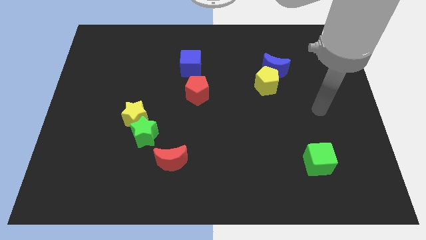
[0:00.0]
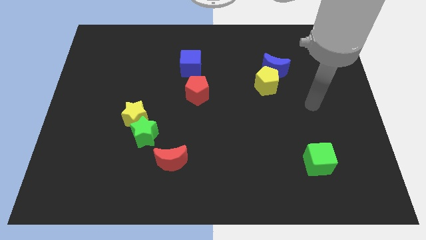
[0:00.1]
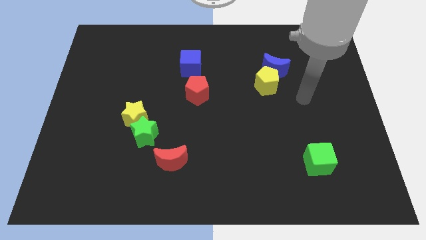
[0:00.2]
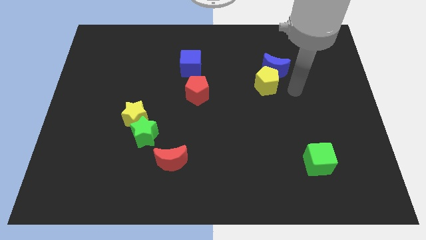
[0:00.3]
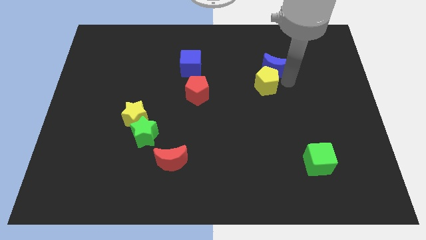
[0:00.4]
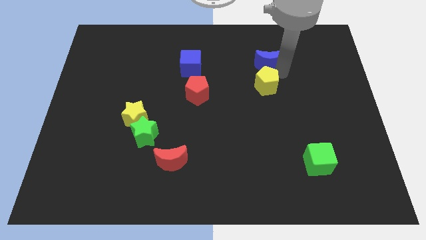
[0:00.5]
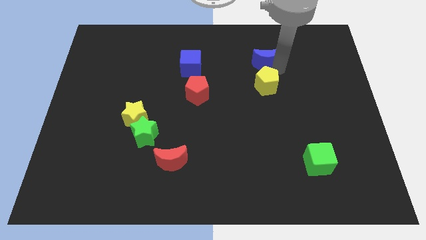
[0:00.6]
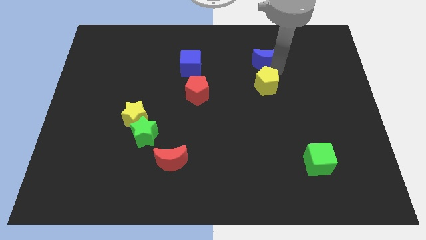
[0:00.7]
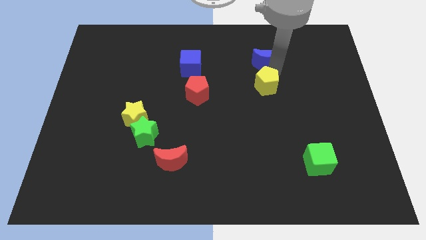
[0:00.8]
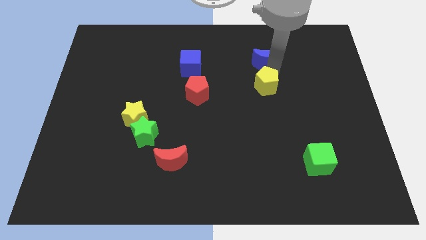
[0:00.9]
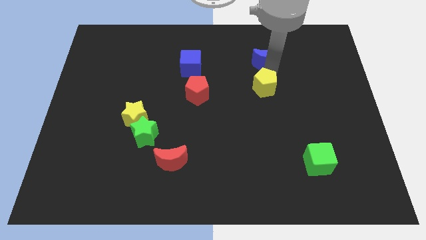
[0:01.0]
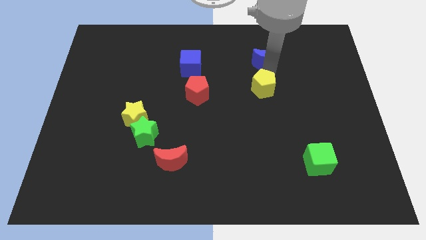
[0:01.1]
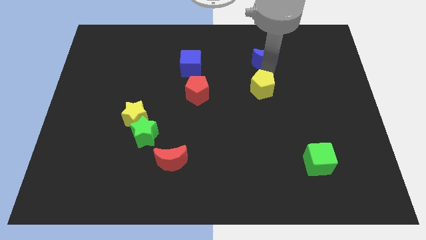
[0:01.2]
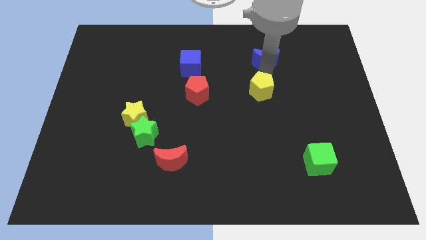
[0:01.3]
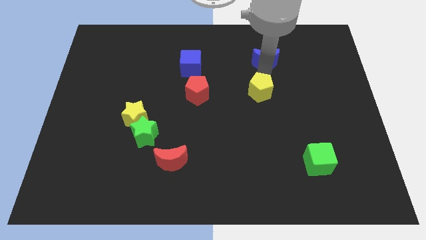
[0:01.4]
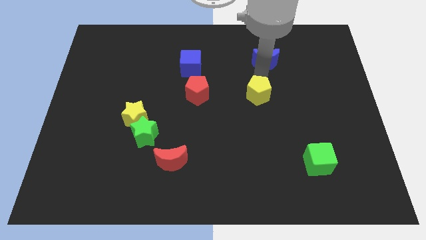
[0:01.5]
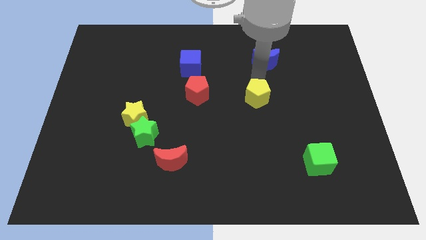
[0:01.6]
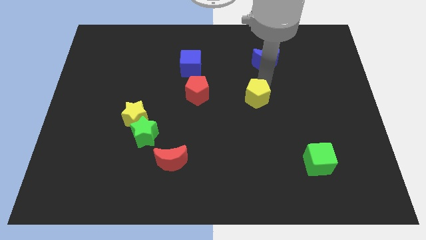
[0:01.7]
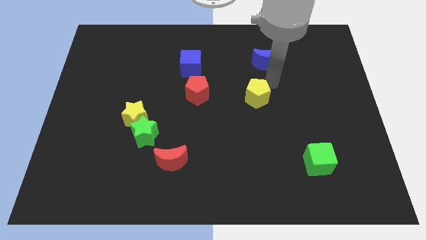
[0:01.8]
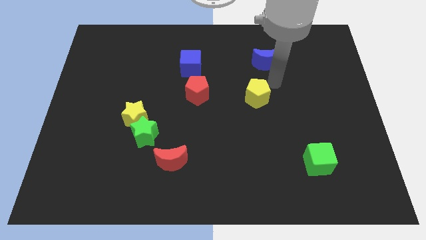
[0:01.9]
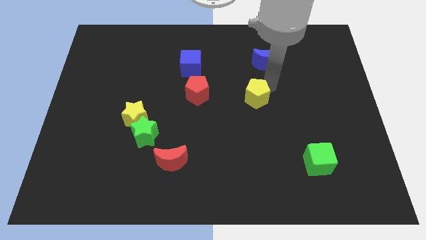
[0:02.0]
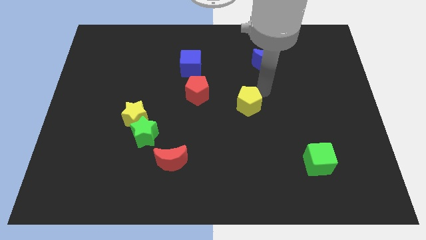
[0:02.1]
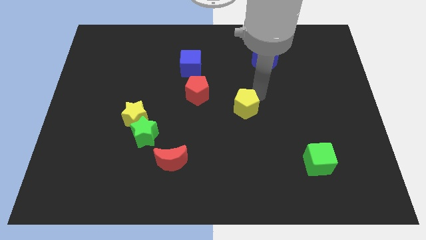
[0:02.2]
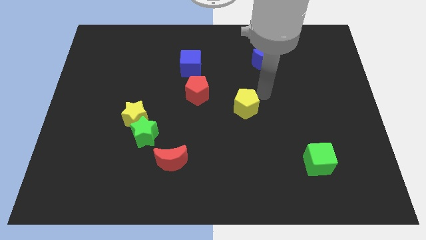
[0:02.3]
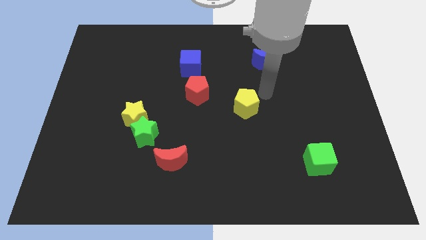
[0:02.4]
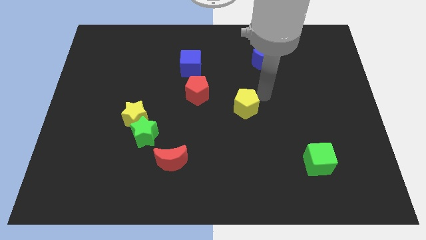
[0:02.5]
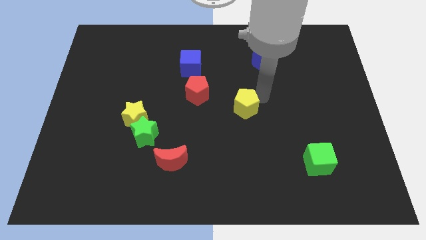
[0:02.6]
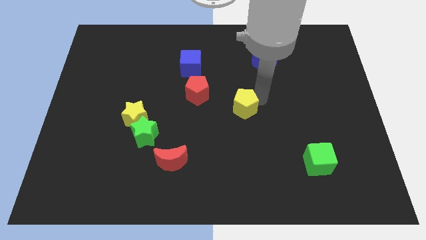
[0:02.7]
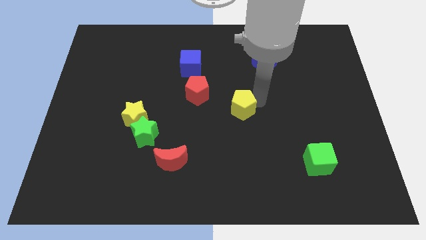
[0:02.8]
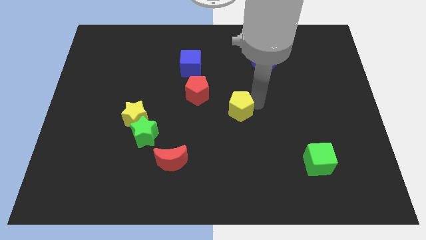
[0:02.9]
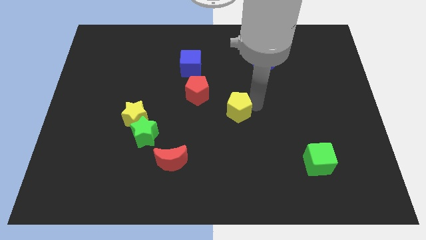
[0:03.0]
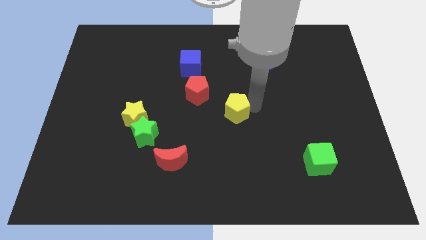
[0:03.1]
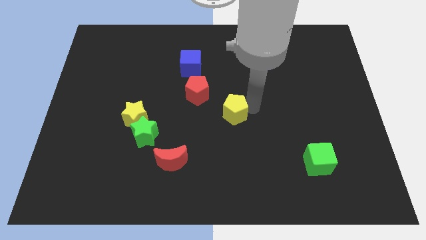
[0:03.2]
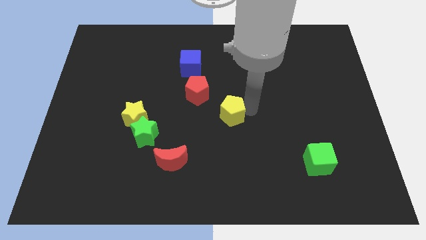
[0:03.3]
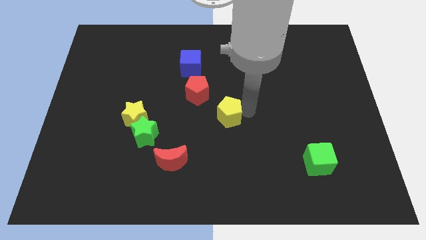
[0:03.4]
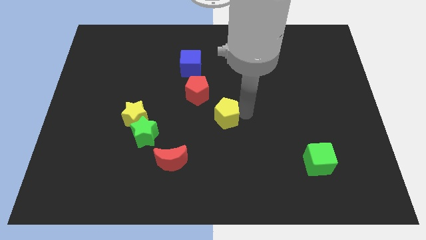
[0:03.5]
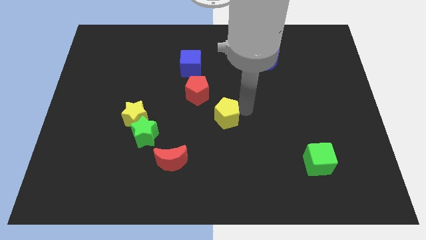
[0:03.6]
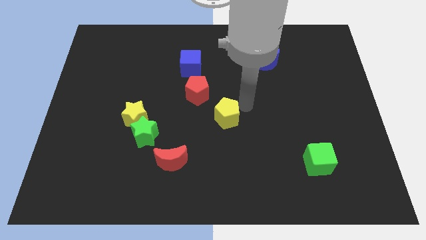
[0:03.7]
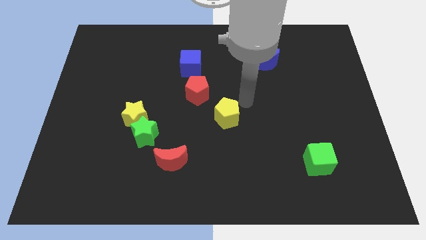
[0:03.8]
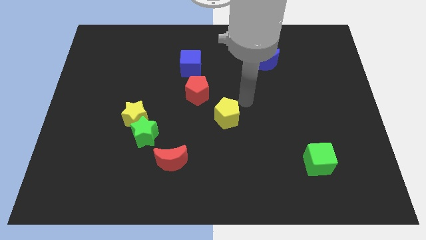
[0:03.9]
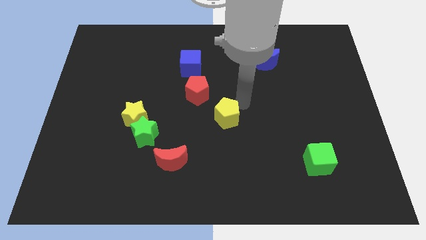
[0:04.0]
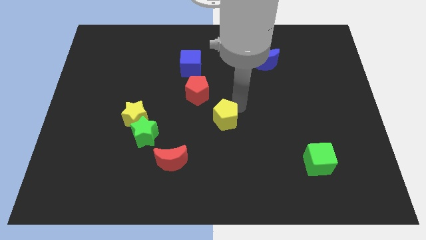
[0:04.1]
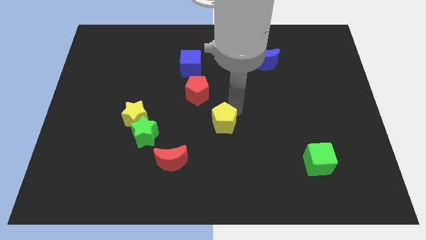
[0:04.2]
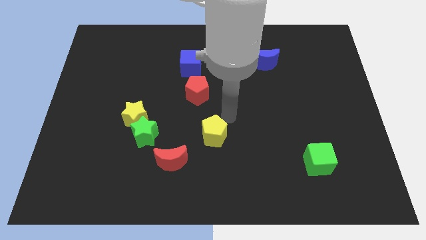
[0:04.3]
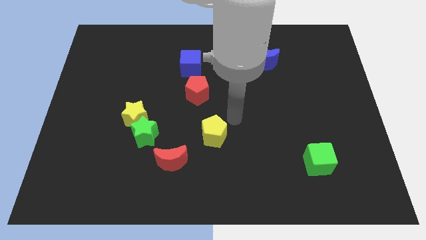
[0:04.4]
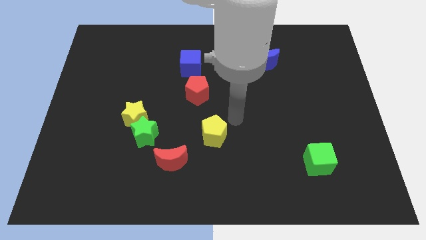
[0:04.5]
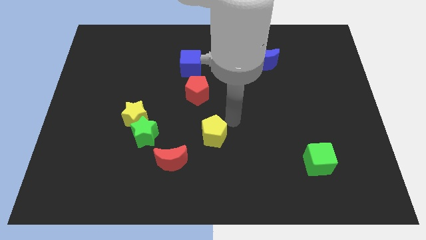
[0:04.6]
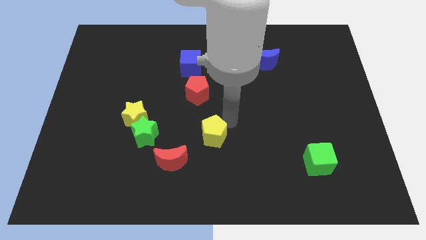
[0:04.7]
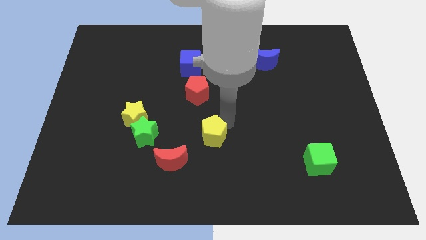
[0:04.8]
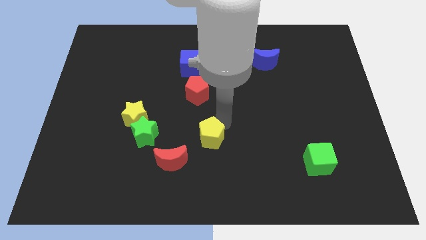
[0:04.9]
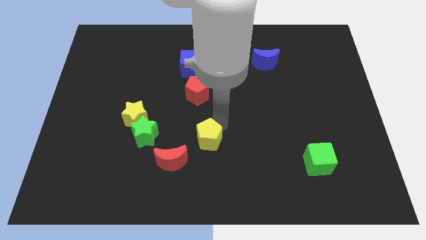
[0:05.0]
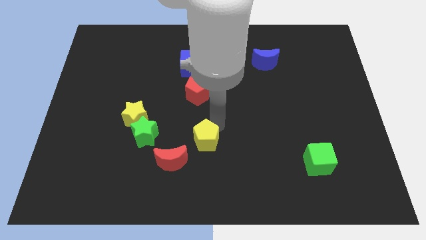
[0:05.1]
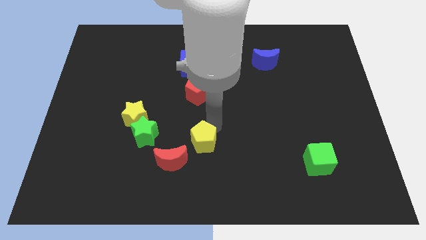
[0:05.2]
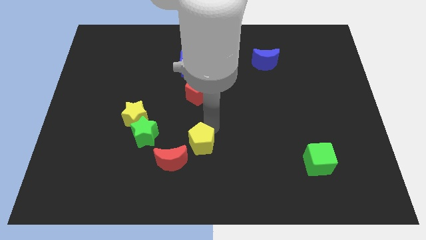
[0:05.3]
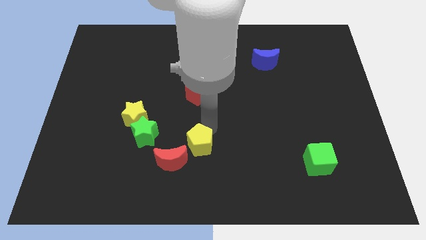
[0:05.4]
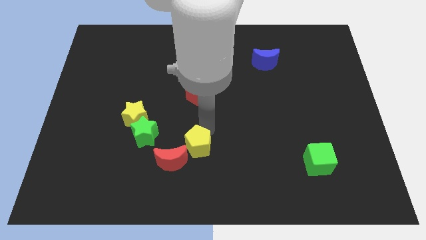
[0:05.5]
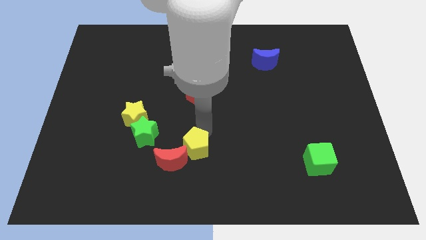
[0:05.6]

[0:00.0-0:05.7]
move the yellow pentagon next to the red moon
